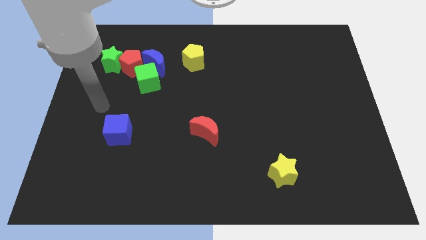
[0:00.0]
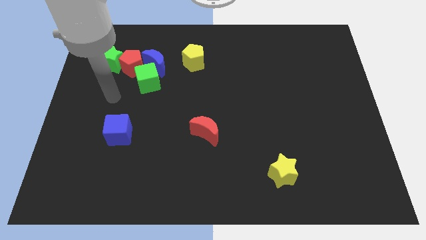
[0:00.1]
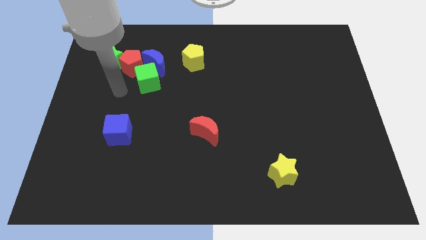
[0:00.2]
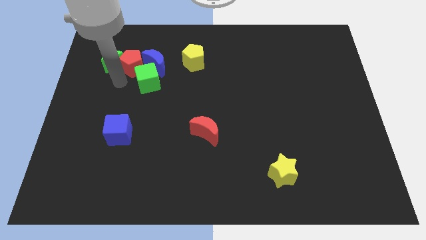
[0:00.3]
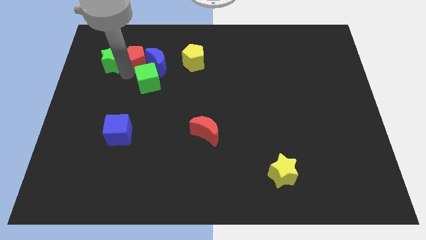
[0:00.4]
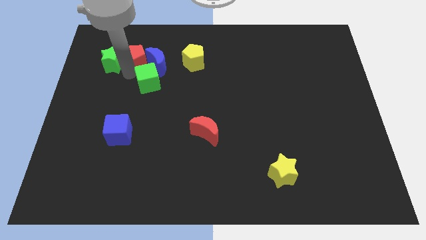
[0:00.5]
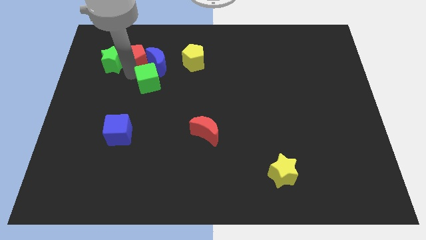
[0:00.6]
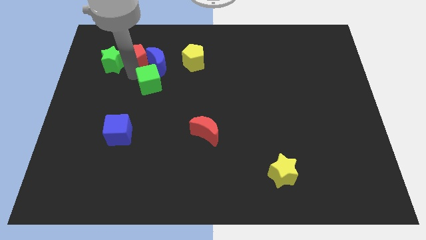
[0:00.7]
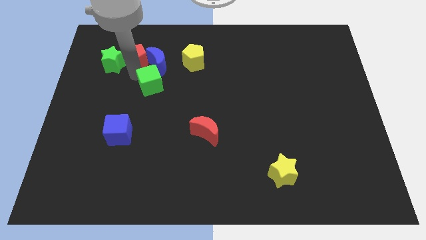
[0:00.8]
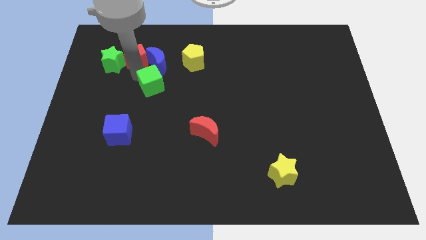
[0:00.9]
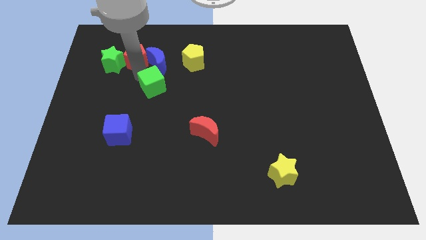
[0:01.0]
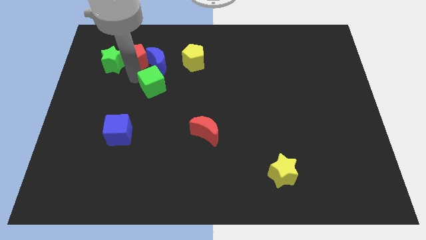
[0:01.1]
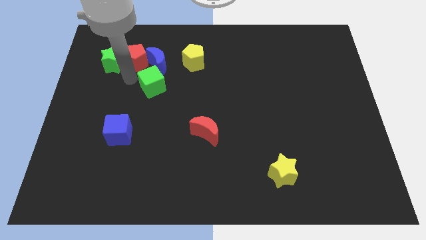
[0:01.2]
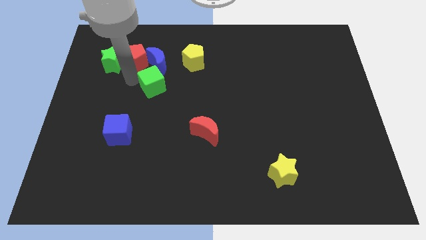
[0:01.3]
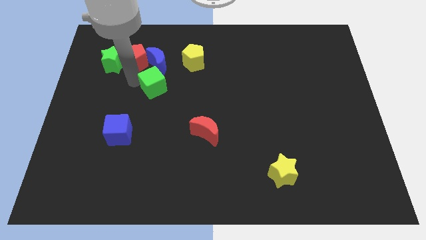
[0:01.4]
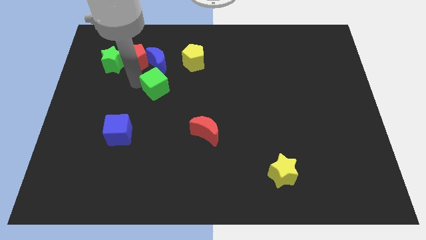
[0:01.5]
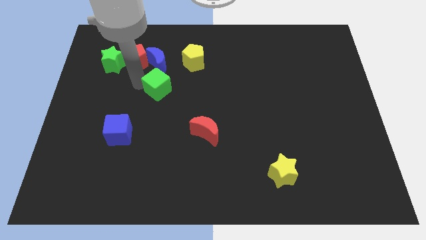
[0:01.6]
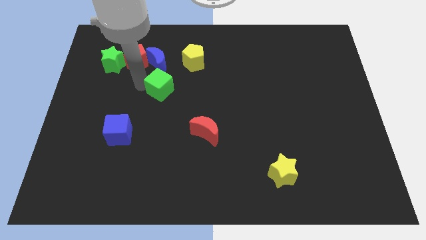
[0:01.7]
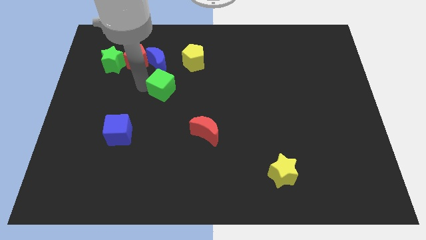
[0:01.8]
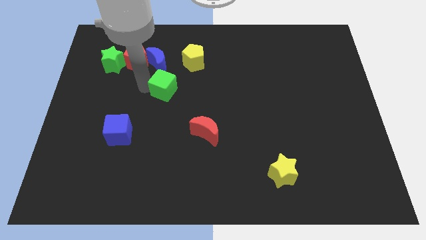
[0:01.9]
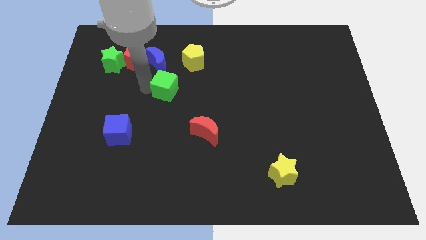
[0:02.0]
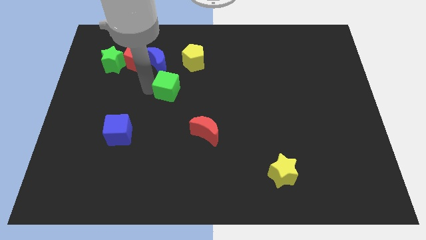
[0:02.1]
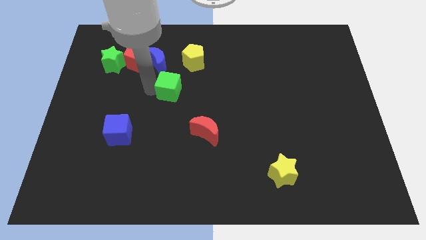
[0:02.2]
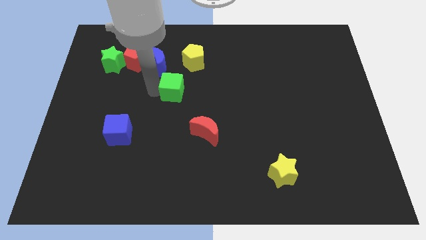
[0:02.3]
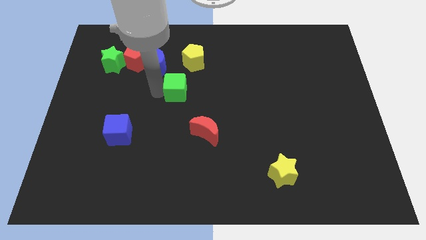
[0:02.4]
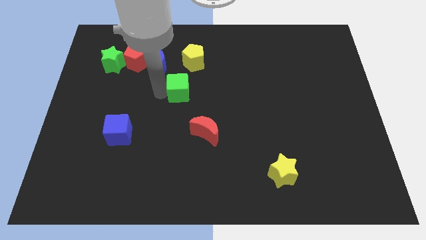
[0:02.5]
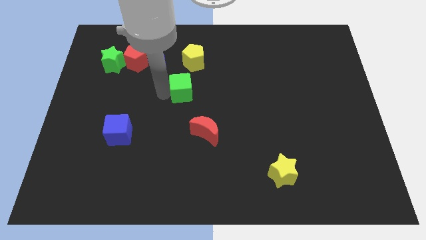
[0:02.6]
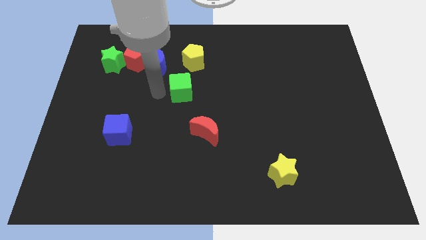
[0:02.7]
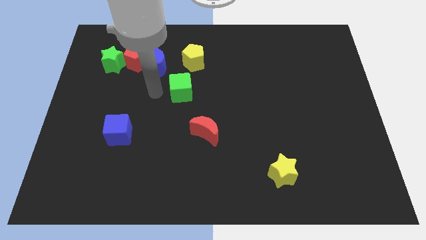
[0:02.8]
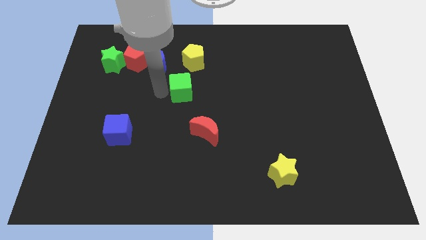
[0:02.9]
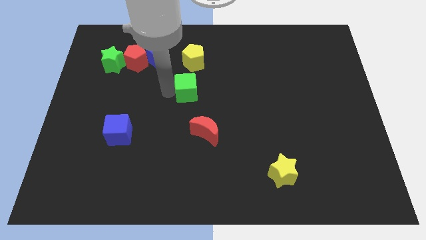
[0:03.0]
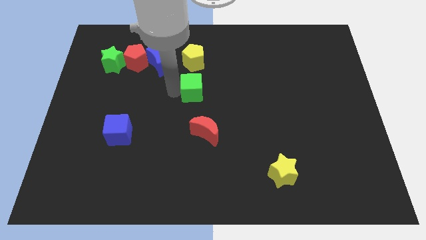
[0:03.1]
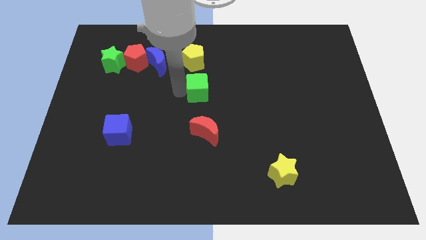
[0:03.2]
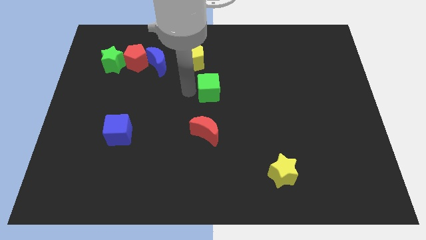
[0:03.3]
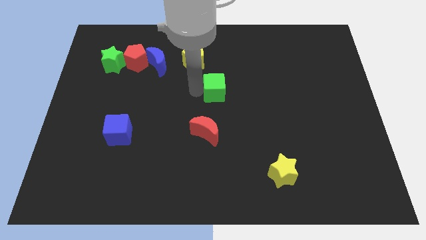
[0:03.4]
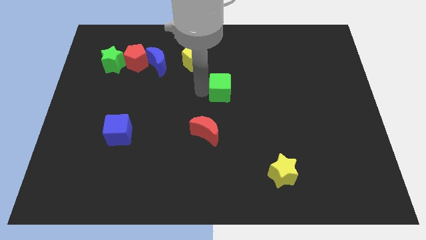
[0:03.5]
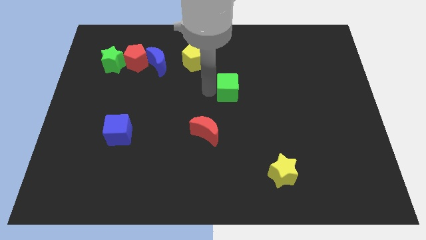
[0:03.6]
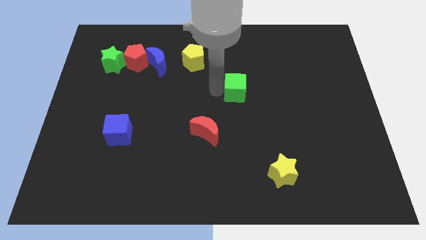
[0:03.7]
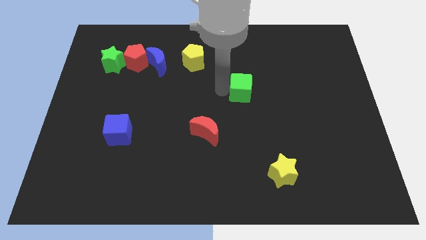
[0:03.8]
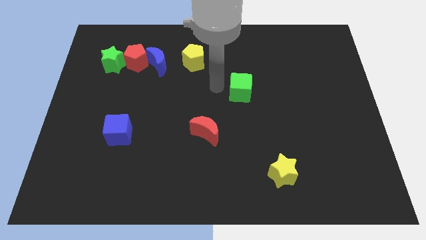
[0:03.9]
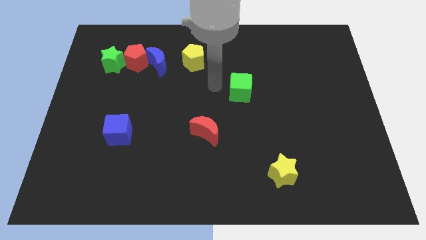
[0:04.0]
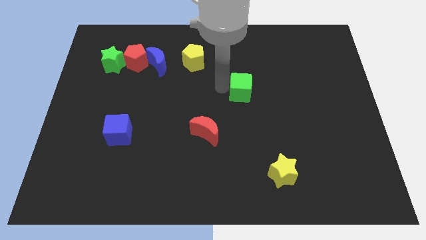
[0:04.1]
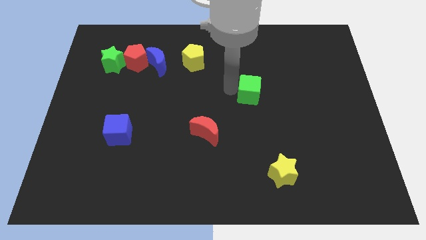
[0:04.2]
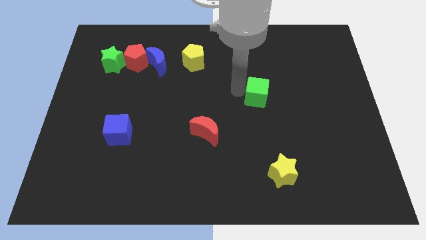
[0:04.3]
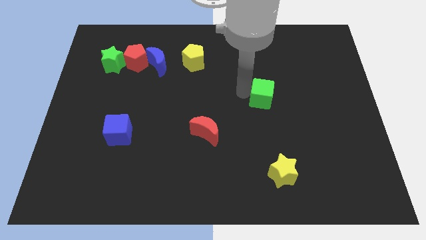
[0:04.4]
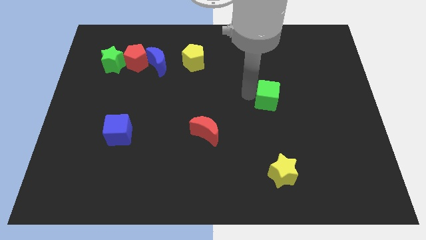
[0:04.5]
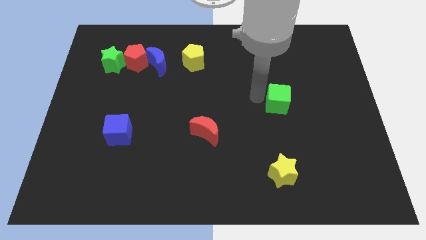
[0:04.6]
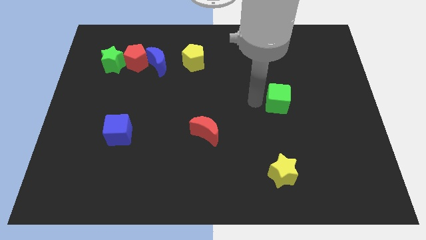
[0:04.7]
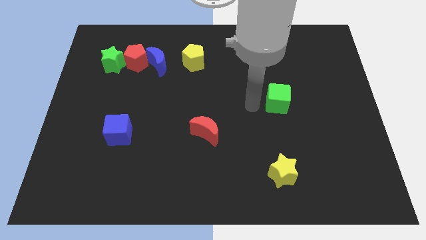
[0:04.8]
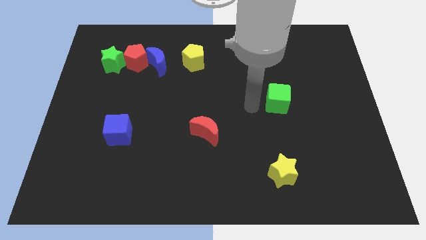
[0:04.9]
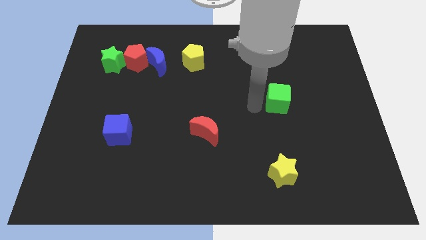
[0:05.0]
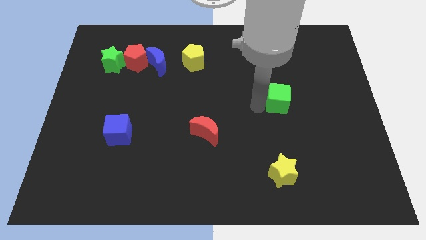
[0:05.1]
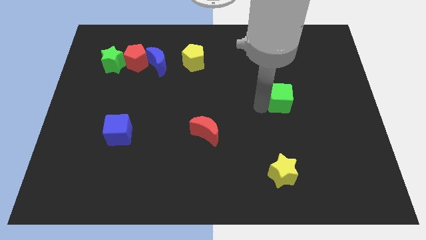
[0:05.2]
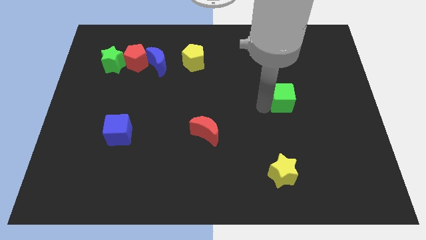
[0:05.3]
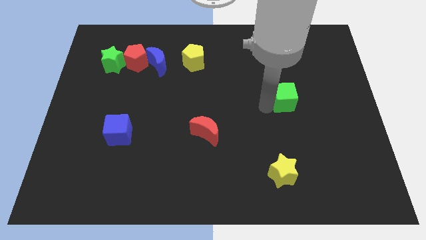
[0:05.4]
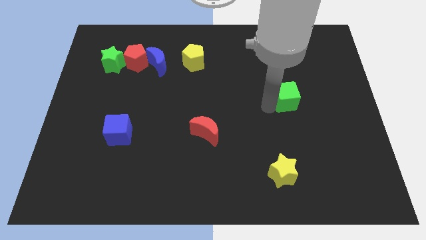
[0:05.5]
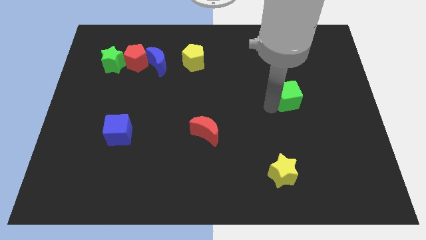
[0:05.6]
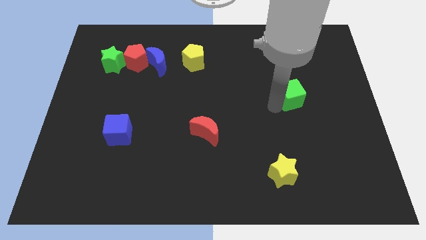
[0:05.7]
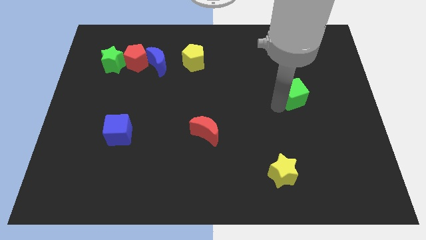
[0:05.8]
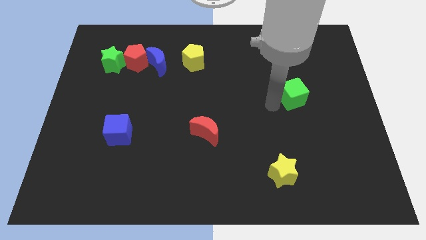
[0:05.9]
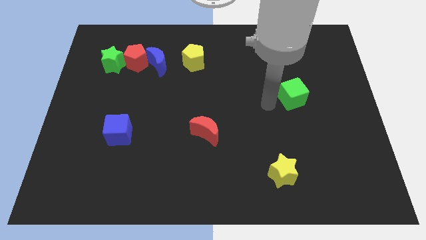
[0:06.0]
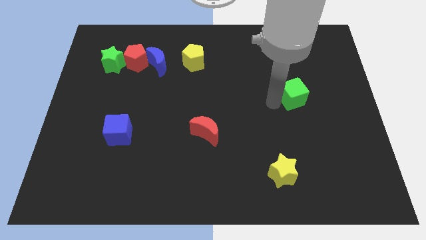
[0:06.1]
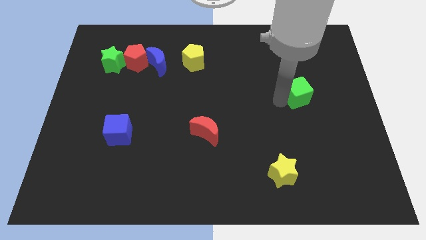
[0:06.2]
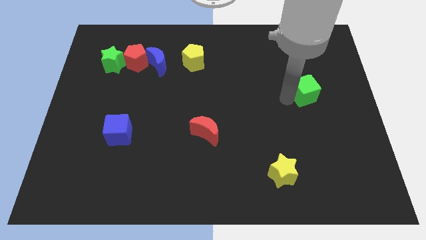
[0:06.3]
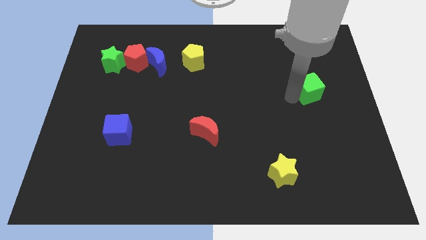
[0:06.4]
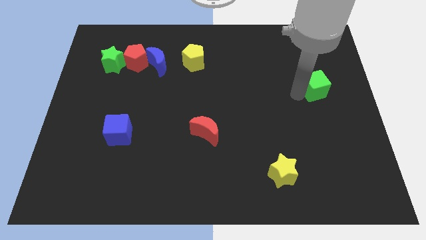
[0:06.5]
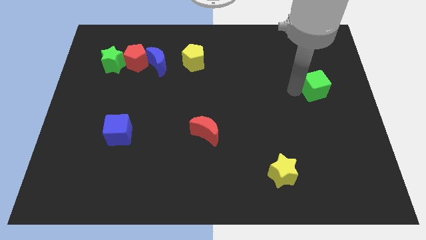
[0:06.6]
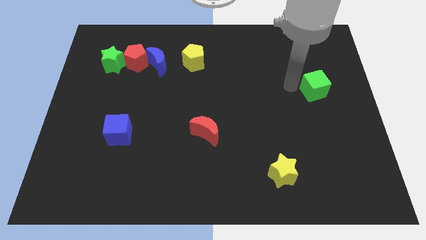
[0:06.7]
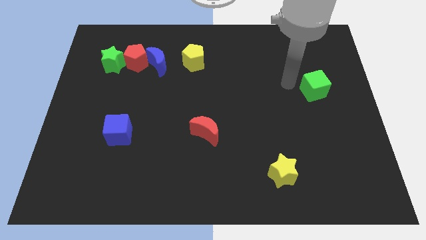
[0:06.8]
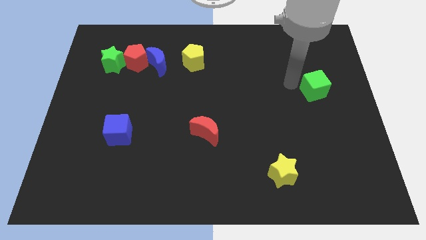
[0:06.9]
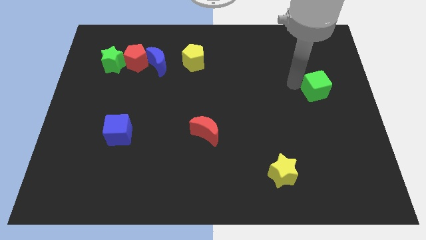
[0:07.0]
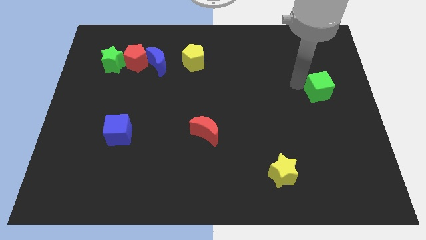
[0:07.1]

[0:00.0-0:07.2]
push the green cube to the right side of the board
